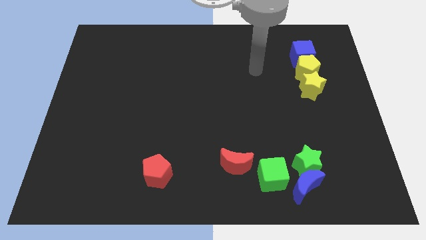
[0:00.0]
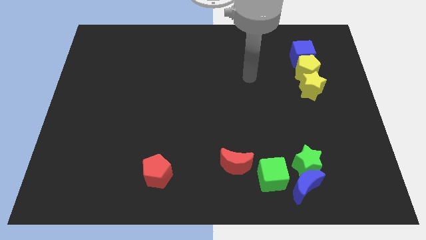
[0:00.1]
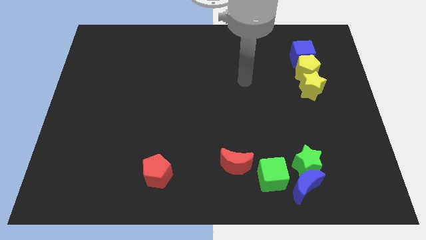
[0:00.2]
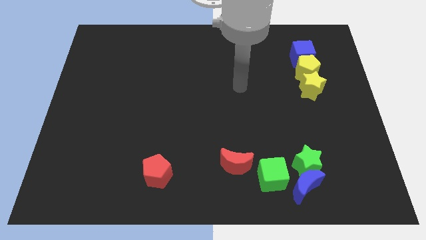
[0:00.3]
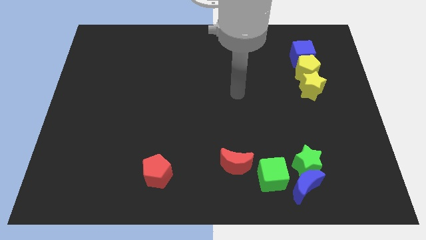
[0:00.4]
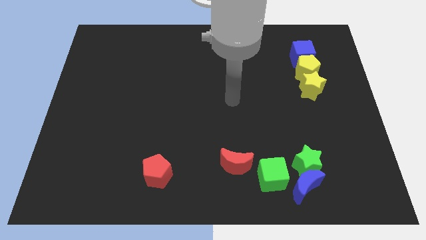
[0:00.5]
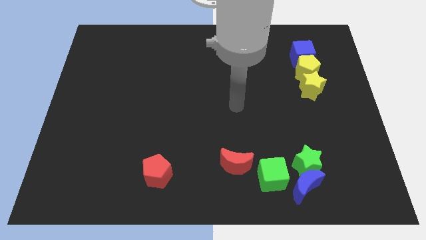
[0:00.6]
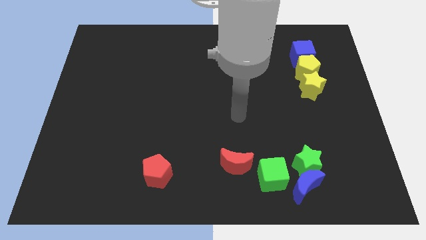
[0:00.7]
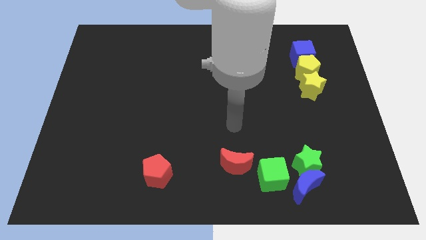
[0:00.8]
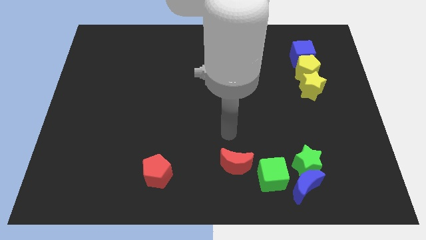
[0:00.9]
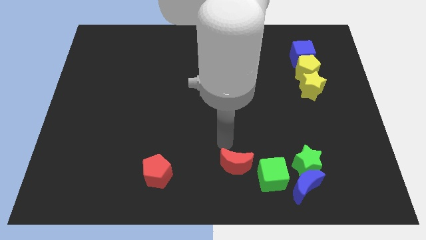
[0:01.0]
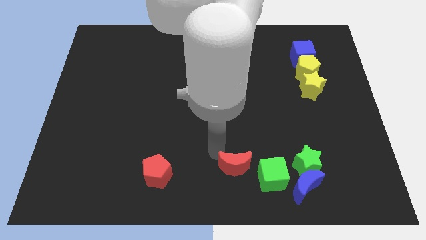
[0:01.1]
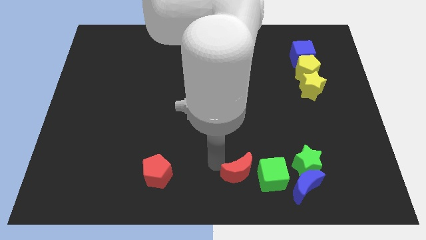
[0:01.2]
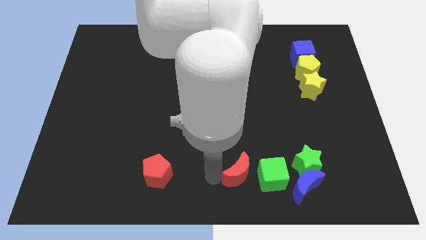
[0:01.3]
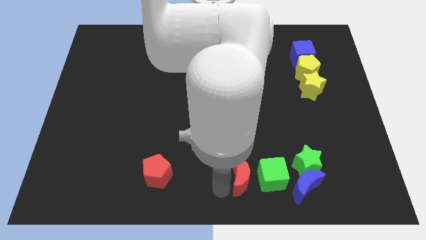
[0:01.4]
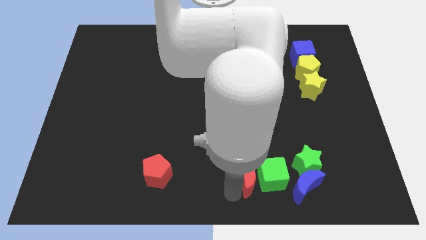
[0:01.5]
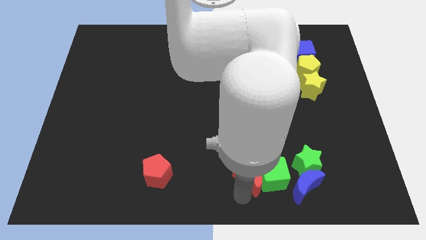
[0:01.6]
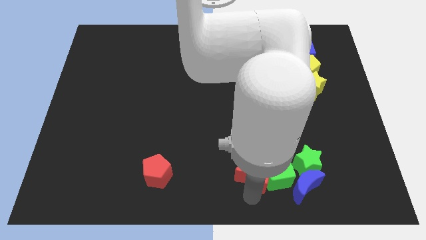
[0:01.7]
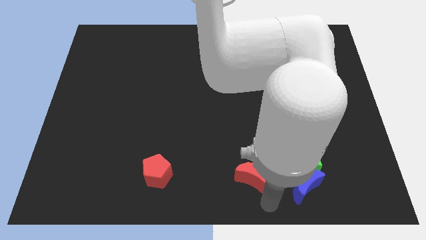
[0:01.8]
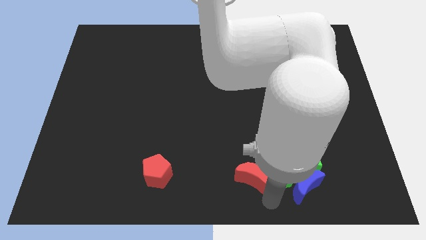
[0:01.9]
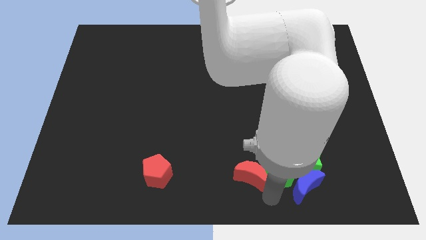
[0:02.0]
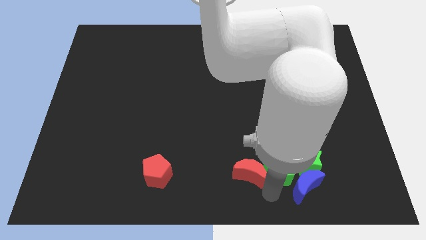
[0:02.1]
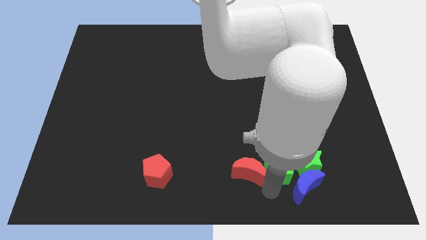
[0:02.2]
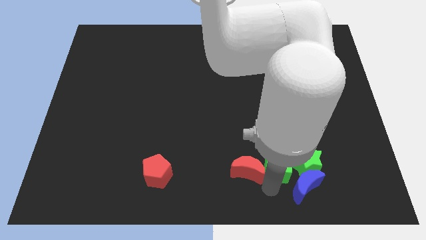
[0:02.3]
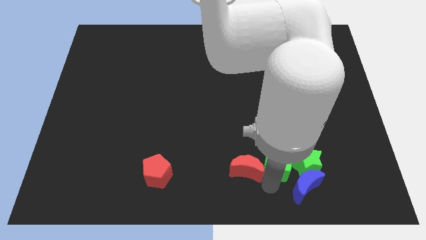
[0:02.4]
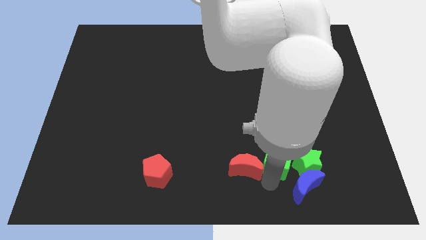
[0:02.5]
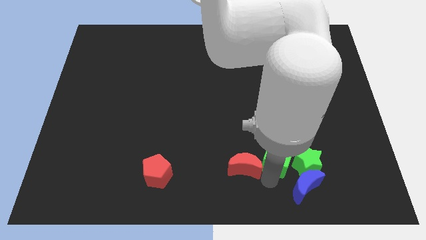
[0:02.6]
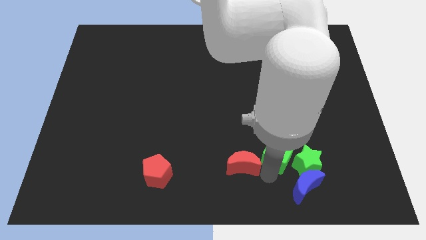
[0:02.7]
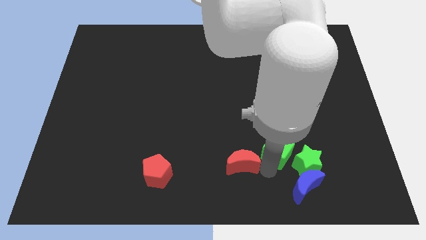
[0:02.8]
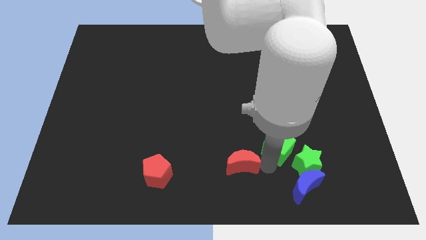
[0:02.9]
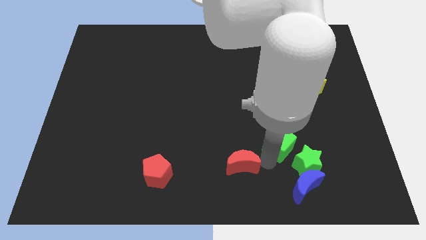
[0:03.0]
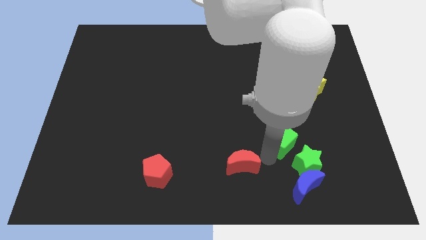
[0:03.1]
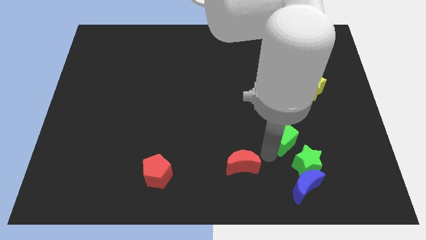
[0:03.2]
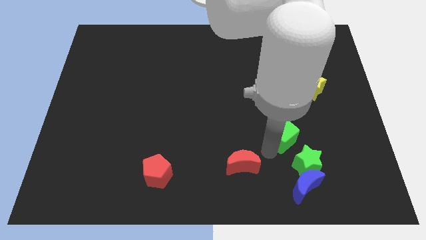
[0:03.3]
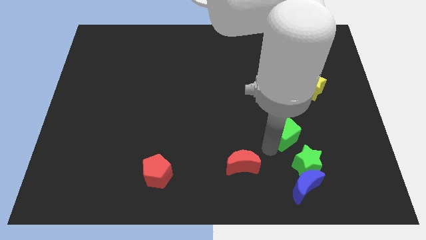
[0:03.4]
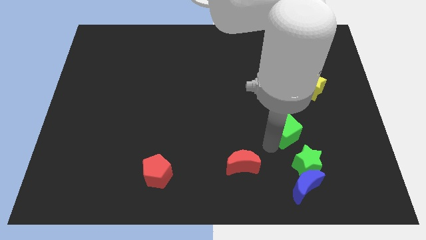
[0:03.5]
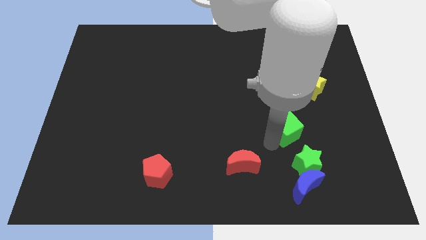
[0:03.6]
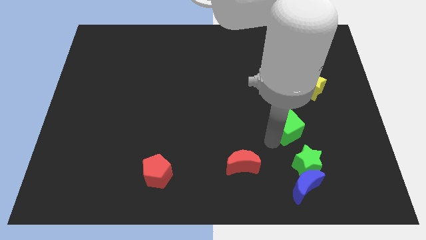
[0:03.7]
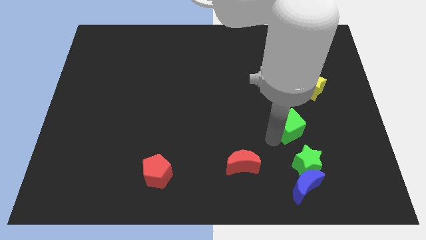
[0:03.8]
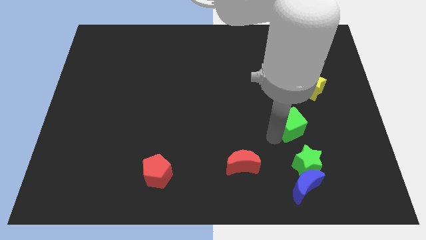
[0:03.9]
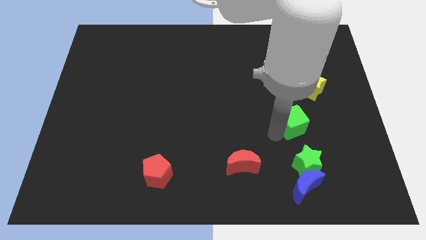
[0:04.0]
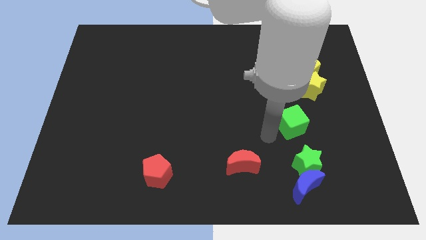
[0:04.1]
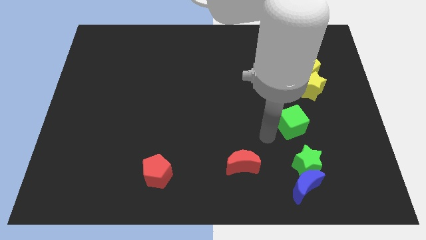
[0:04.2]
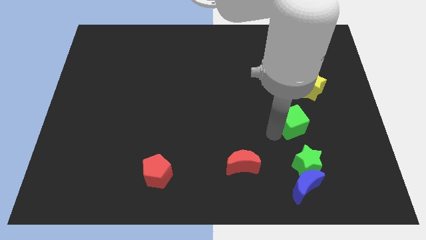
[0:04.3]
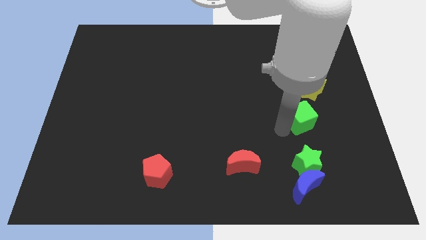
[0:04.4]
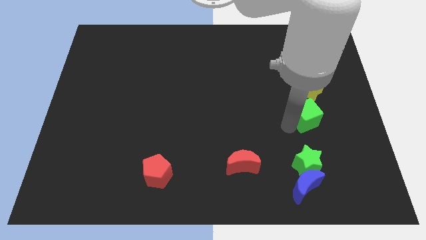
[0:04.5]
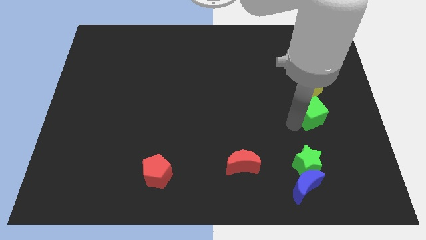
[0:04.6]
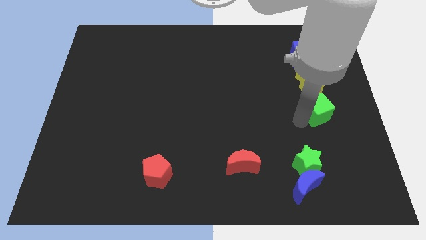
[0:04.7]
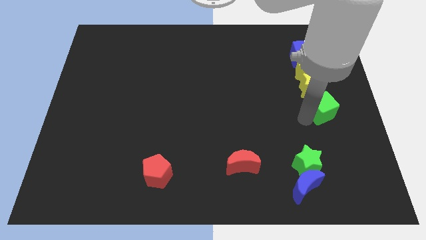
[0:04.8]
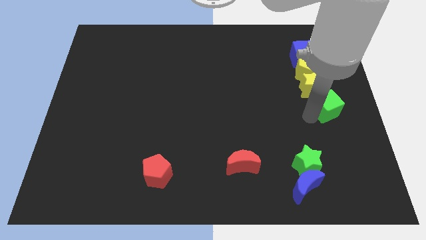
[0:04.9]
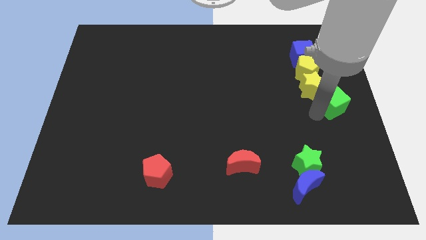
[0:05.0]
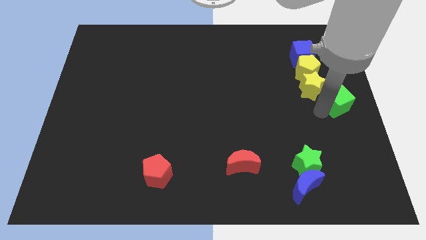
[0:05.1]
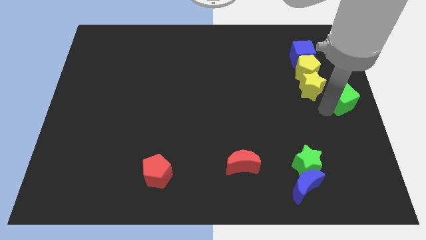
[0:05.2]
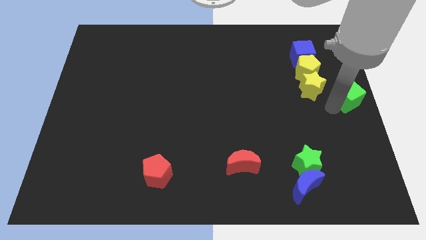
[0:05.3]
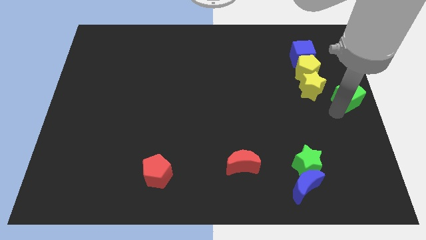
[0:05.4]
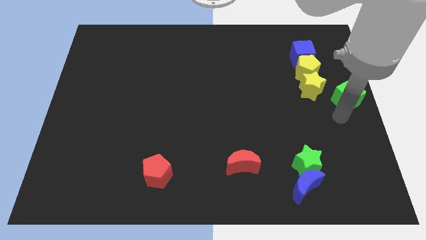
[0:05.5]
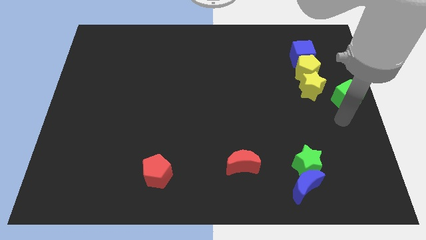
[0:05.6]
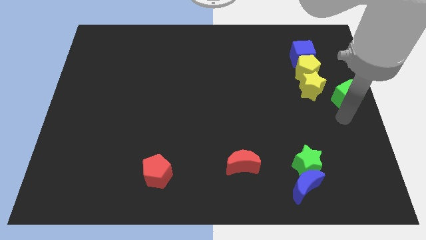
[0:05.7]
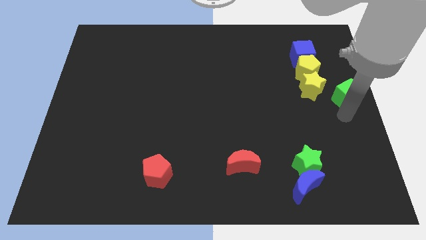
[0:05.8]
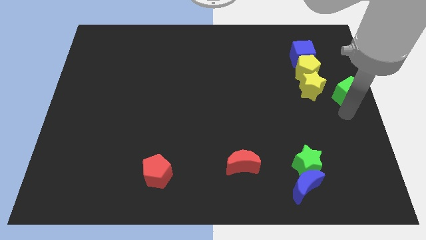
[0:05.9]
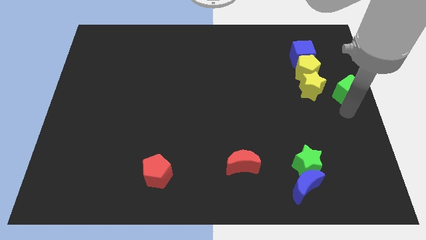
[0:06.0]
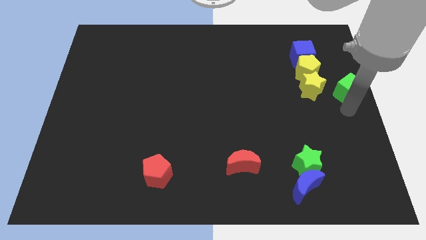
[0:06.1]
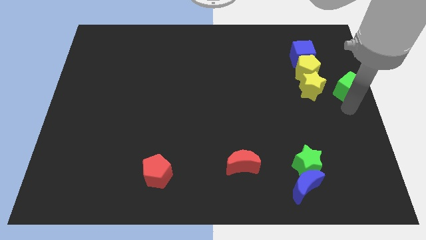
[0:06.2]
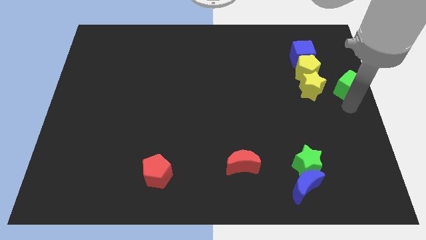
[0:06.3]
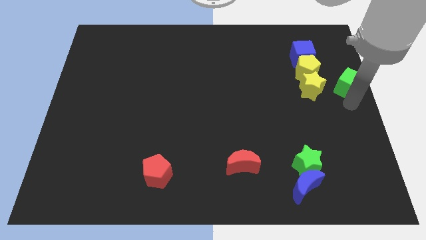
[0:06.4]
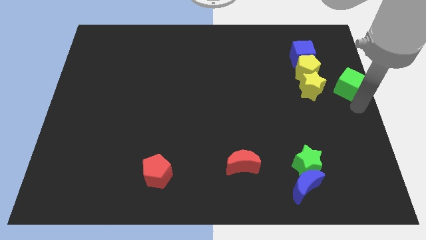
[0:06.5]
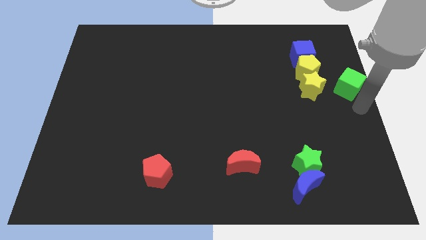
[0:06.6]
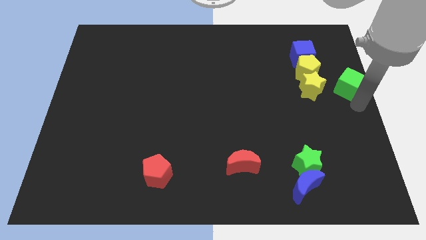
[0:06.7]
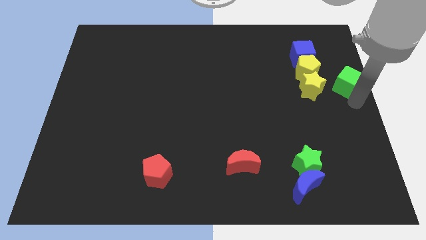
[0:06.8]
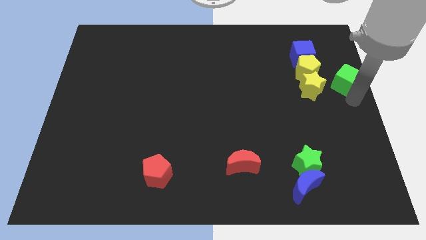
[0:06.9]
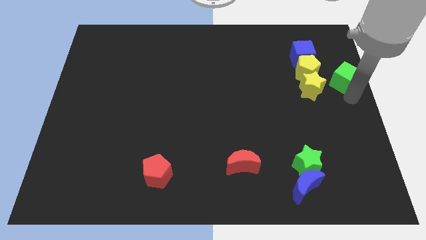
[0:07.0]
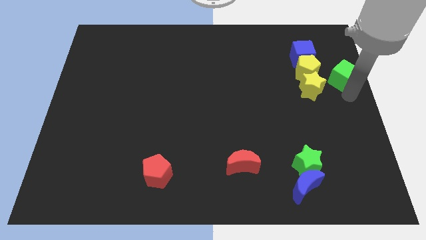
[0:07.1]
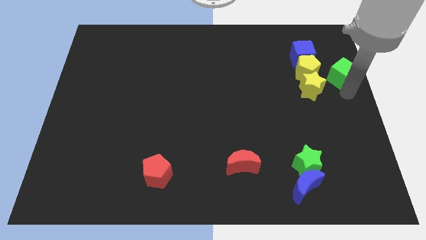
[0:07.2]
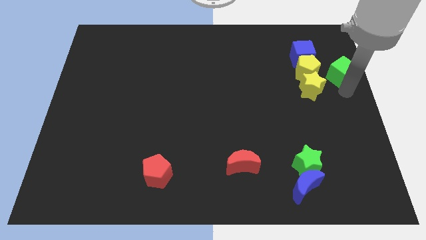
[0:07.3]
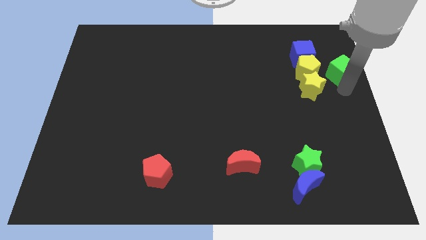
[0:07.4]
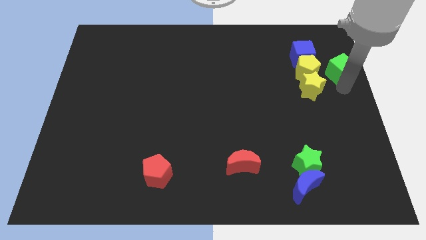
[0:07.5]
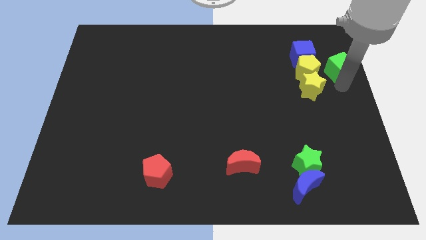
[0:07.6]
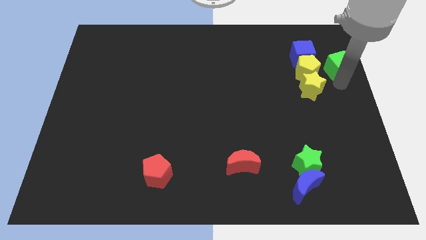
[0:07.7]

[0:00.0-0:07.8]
move the green cube to the top right of the yellow pentagon
